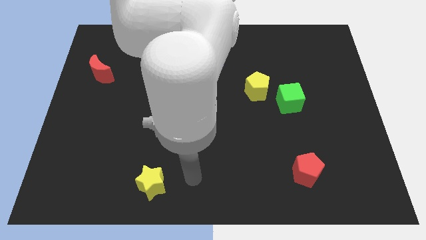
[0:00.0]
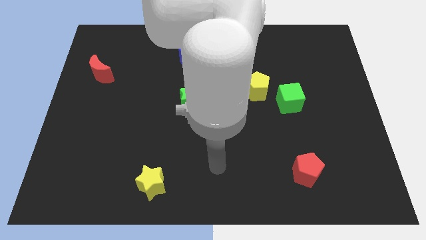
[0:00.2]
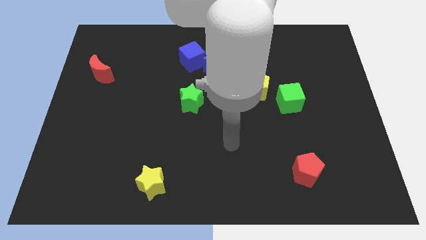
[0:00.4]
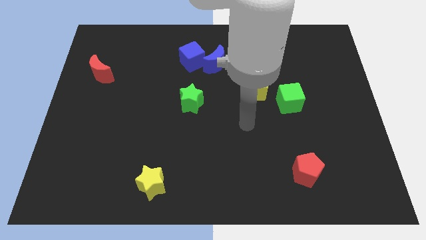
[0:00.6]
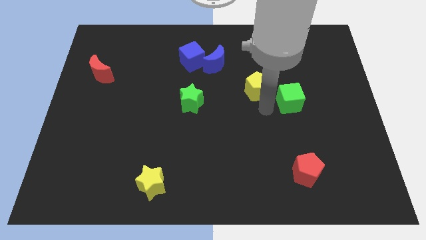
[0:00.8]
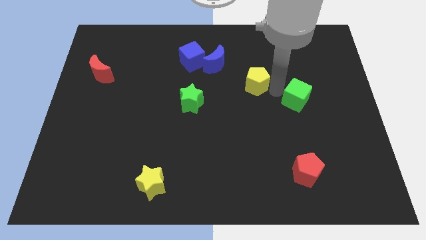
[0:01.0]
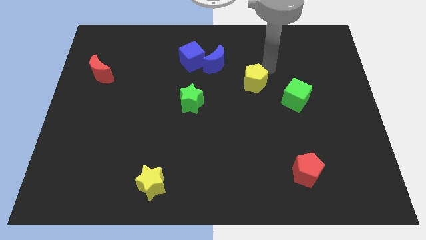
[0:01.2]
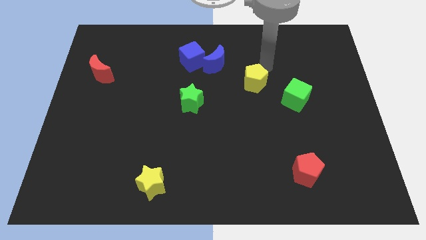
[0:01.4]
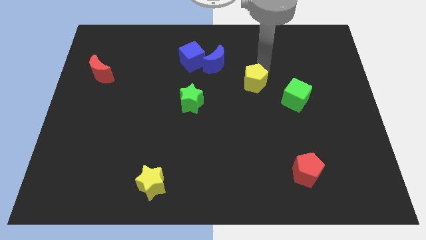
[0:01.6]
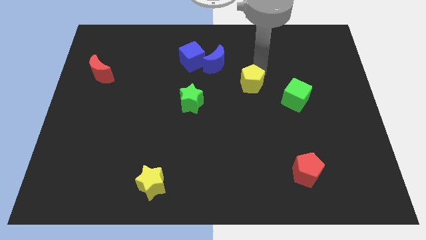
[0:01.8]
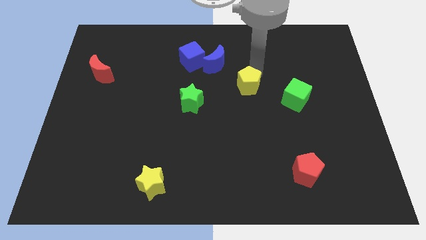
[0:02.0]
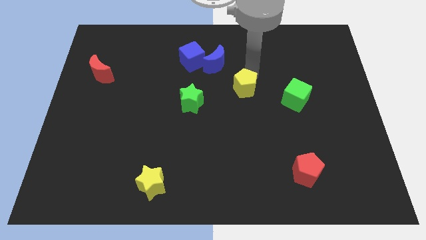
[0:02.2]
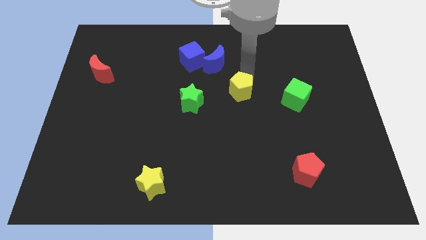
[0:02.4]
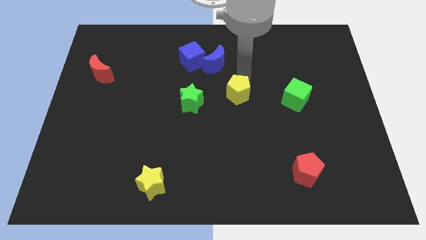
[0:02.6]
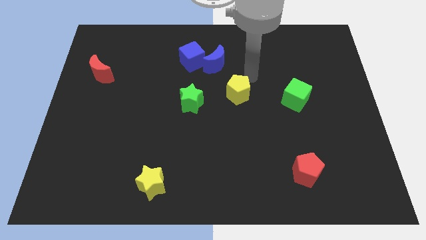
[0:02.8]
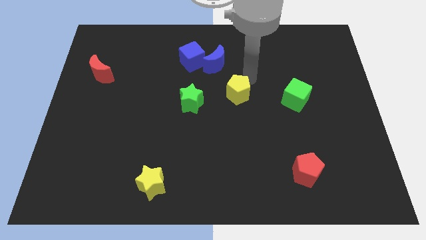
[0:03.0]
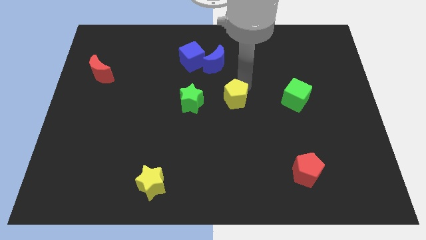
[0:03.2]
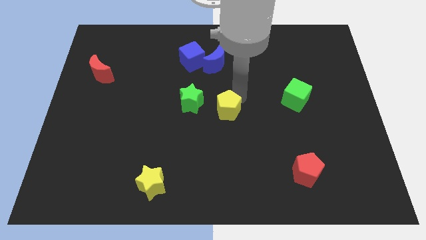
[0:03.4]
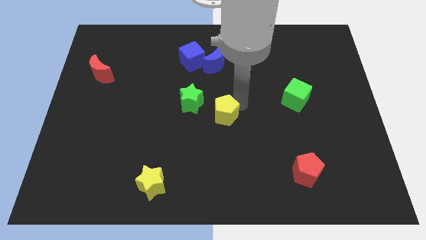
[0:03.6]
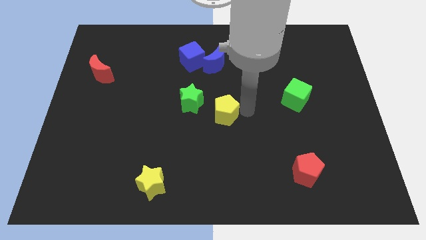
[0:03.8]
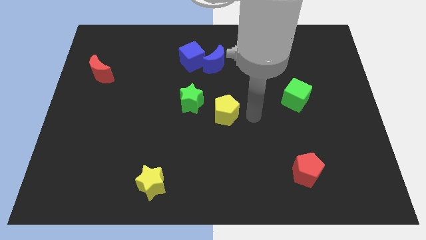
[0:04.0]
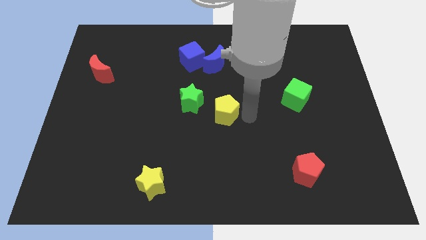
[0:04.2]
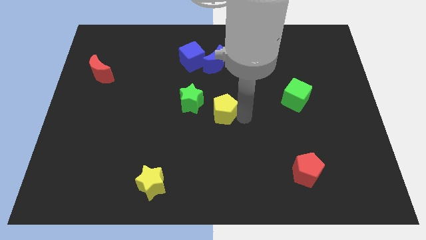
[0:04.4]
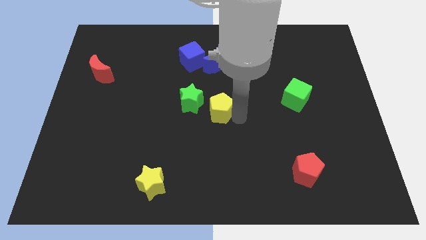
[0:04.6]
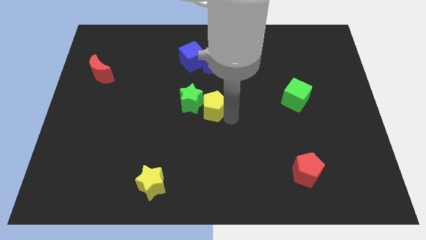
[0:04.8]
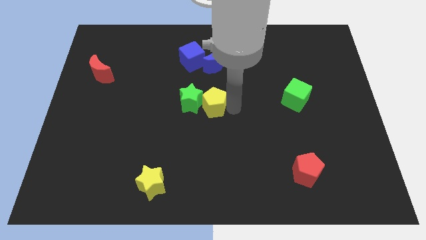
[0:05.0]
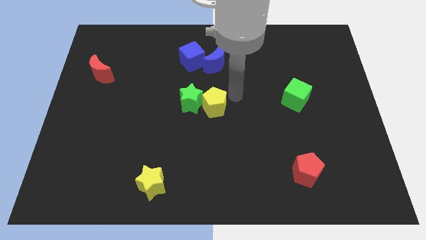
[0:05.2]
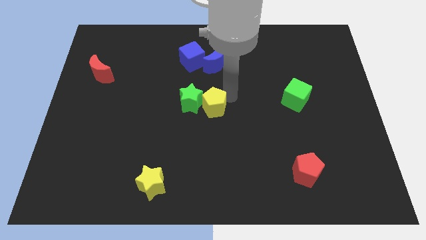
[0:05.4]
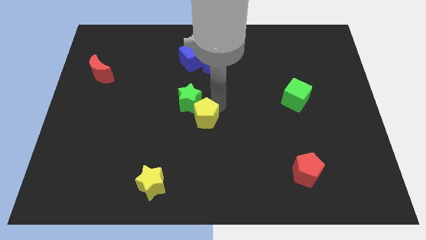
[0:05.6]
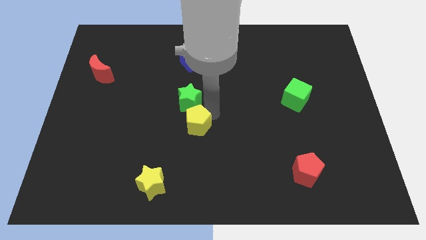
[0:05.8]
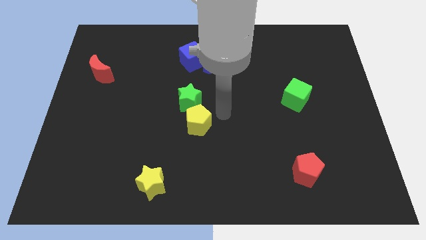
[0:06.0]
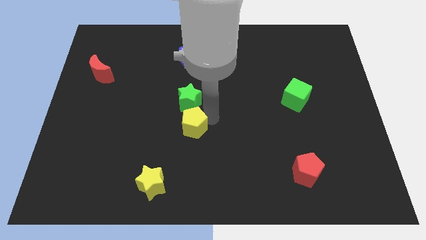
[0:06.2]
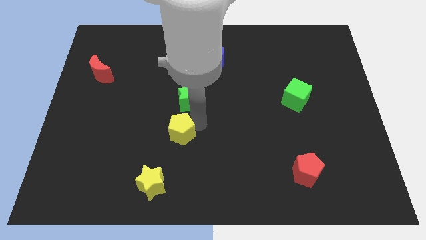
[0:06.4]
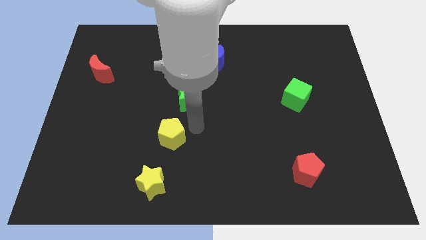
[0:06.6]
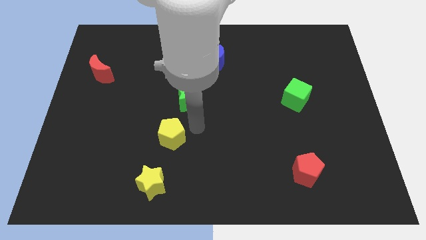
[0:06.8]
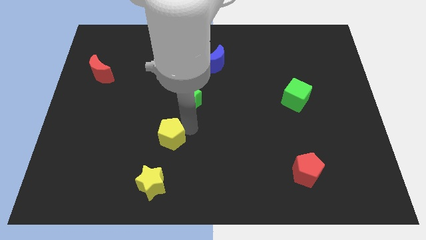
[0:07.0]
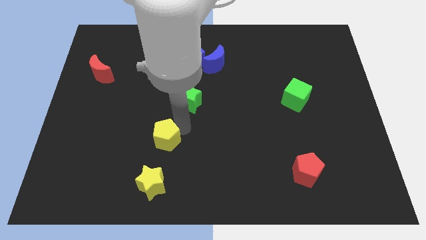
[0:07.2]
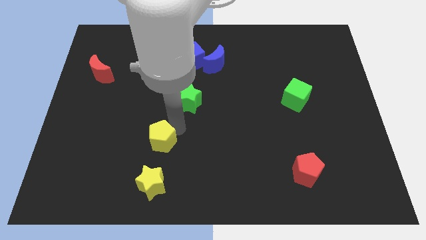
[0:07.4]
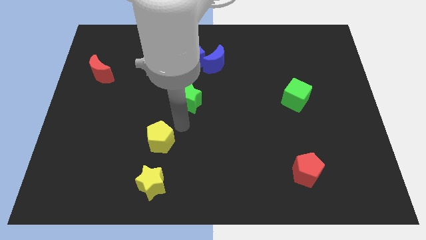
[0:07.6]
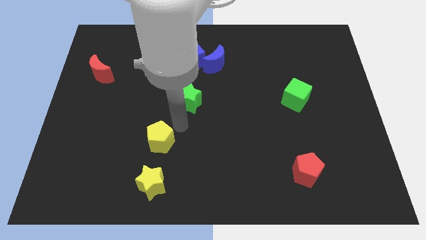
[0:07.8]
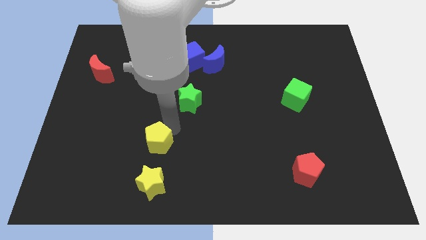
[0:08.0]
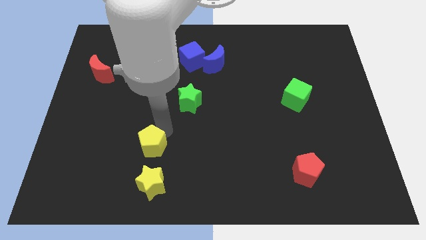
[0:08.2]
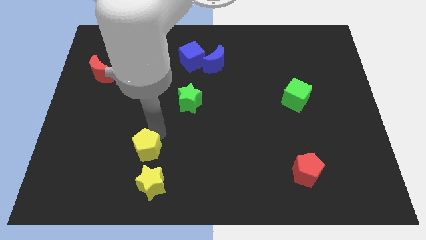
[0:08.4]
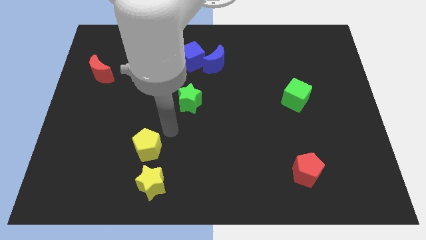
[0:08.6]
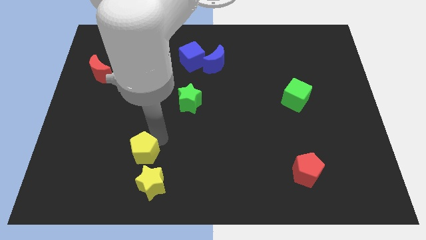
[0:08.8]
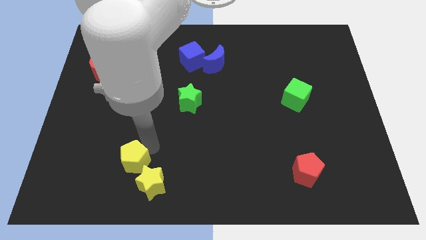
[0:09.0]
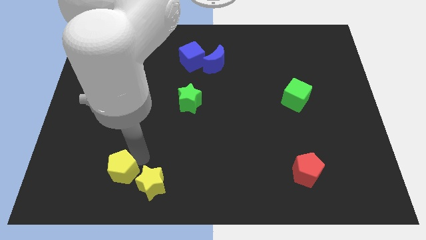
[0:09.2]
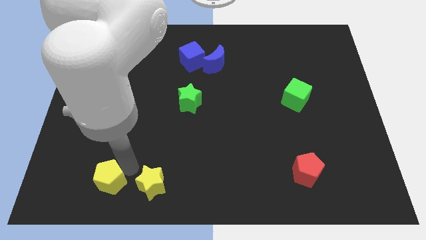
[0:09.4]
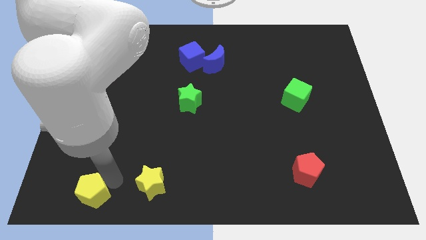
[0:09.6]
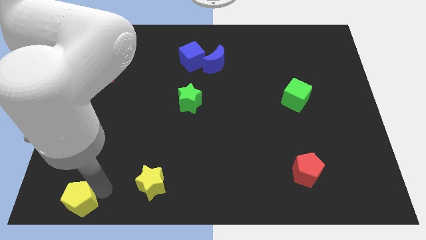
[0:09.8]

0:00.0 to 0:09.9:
slide the yellow pentagon to the bottom left of the board

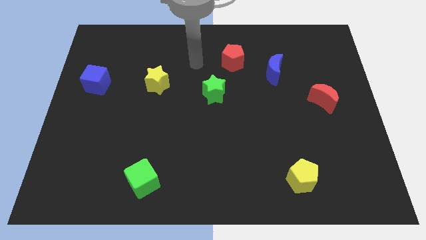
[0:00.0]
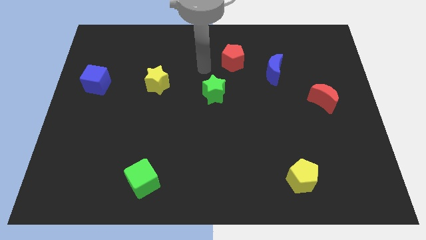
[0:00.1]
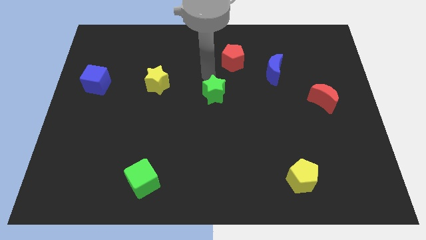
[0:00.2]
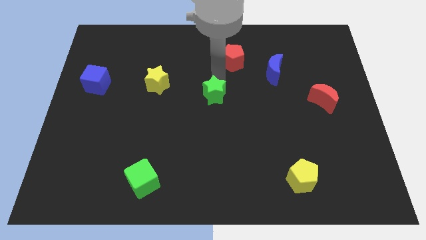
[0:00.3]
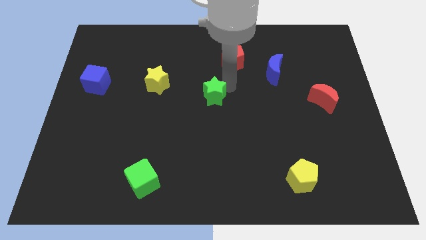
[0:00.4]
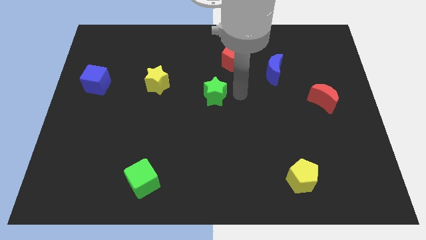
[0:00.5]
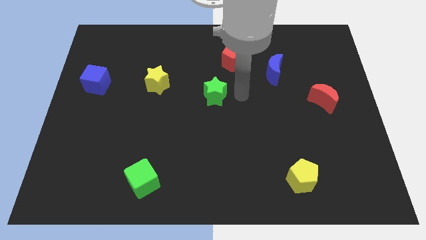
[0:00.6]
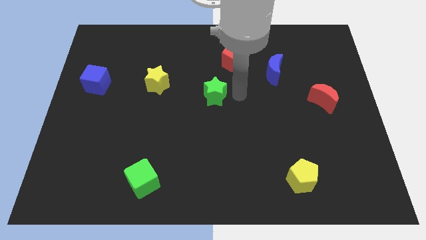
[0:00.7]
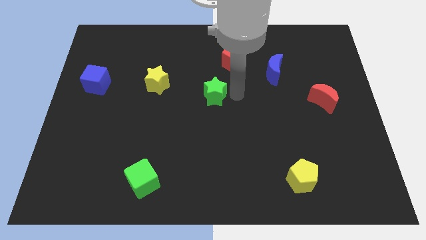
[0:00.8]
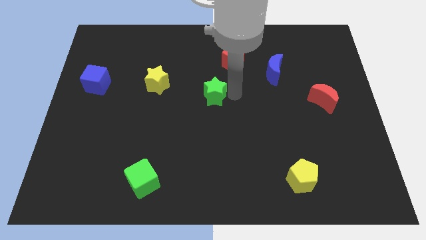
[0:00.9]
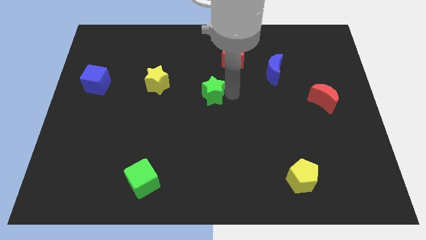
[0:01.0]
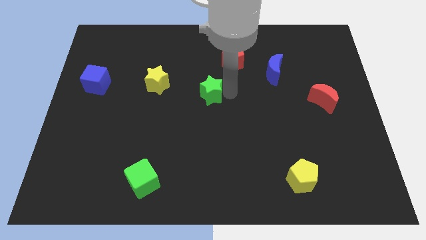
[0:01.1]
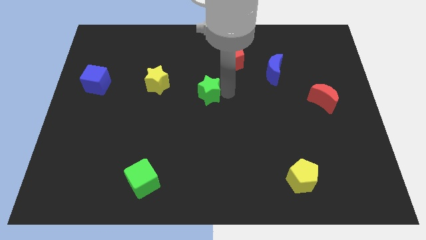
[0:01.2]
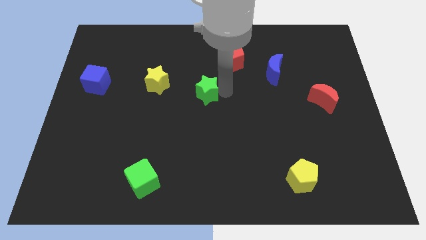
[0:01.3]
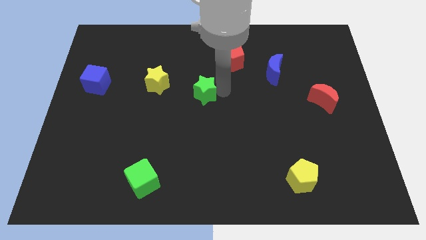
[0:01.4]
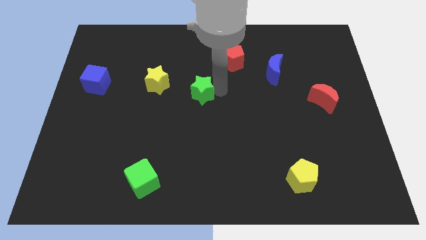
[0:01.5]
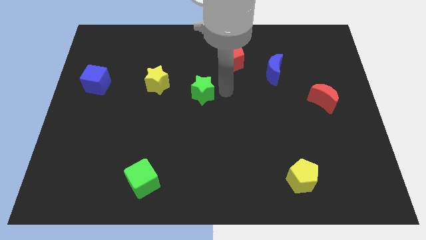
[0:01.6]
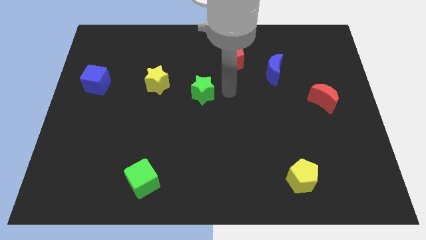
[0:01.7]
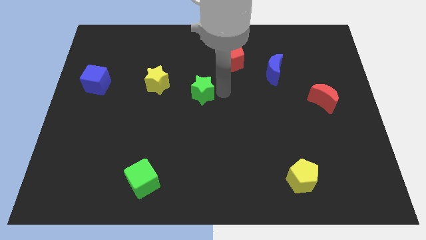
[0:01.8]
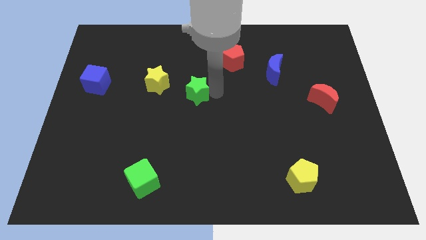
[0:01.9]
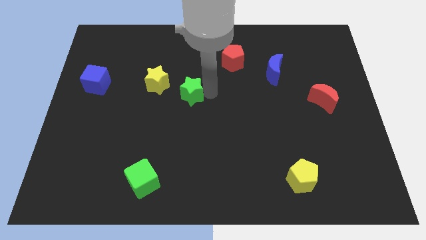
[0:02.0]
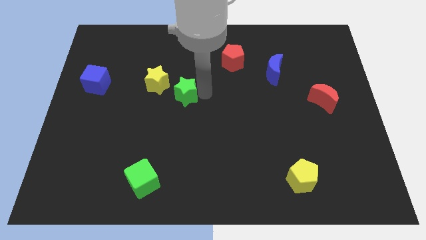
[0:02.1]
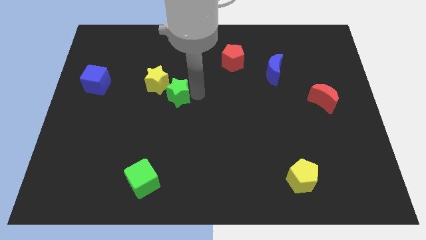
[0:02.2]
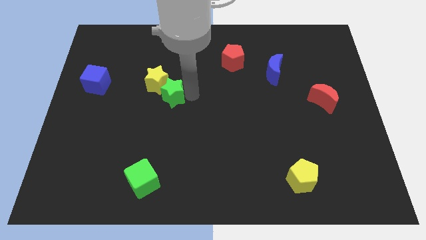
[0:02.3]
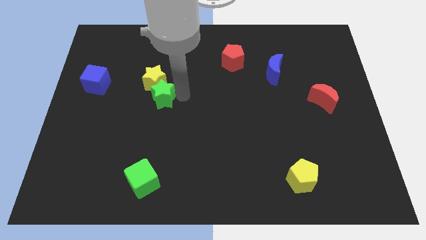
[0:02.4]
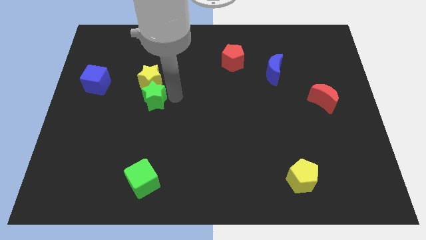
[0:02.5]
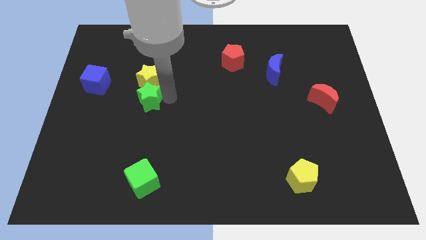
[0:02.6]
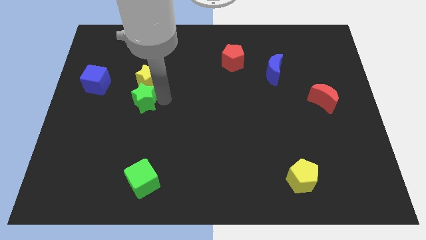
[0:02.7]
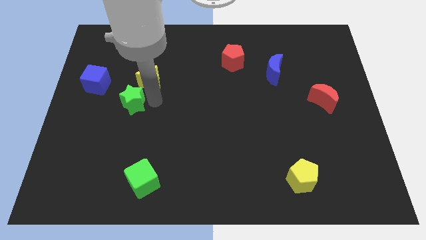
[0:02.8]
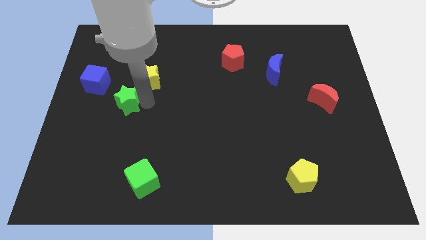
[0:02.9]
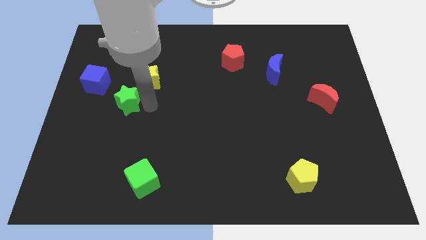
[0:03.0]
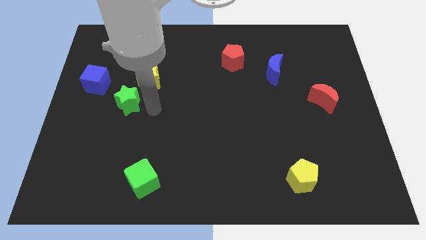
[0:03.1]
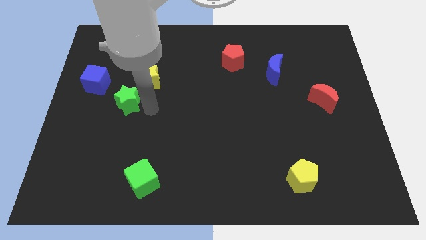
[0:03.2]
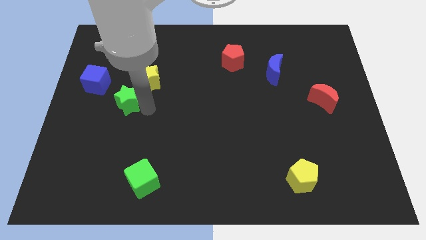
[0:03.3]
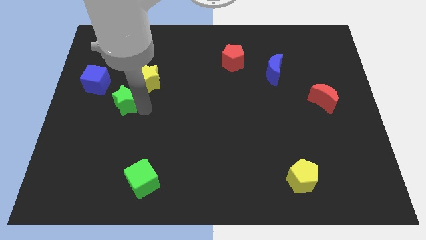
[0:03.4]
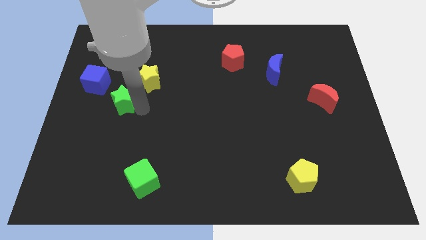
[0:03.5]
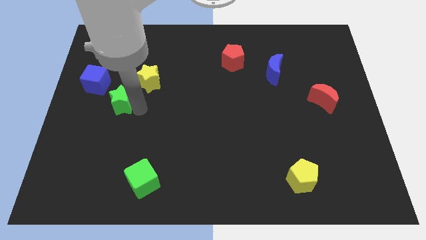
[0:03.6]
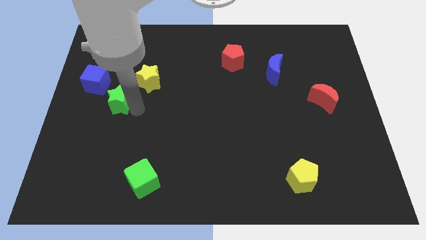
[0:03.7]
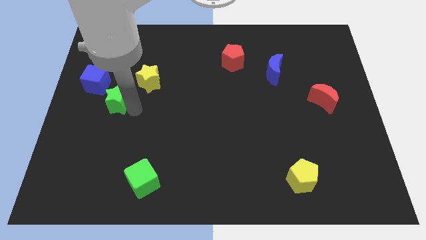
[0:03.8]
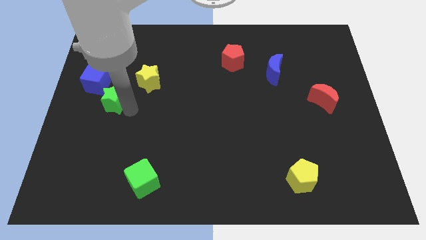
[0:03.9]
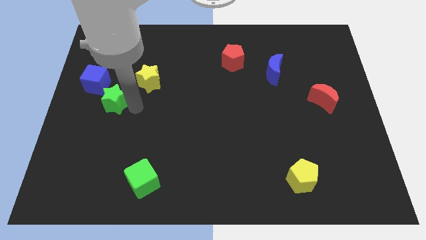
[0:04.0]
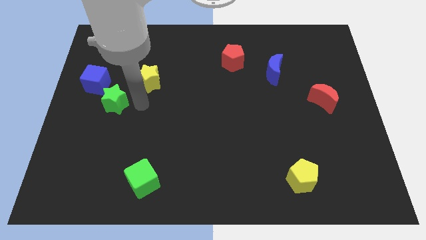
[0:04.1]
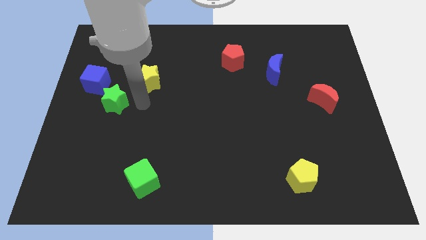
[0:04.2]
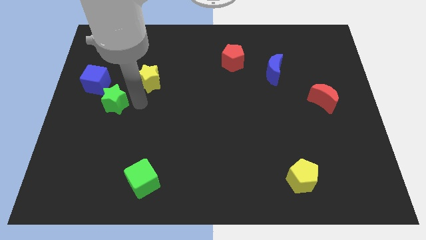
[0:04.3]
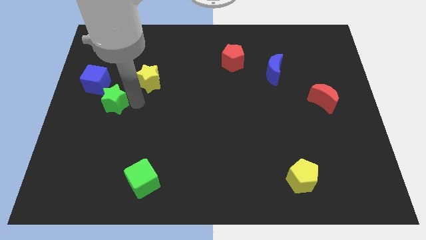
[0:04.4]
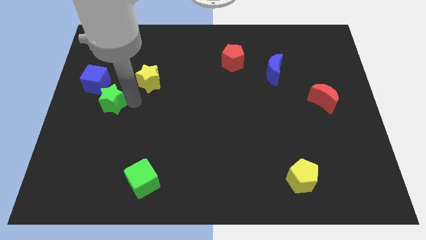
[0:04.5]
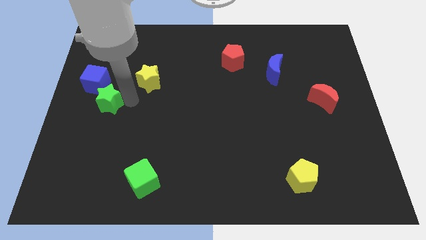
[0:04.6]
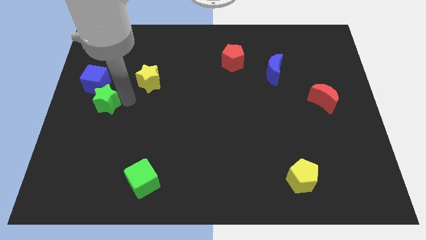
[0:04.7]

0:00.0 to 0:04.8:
put the green star to the left side of the board
